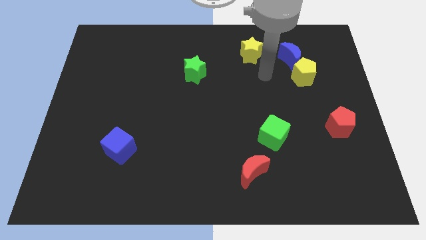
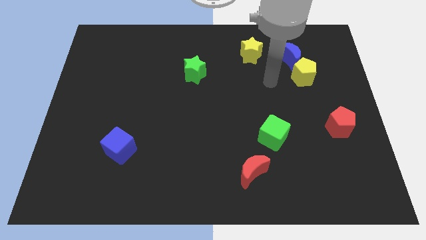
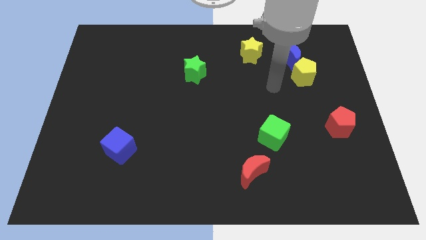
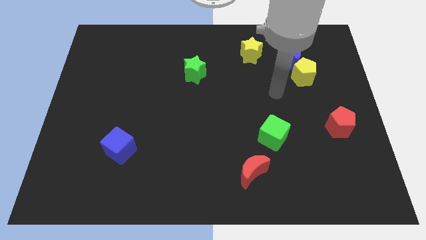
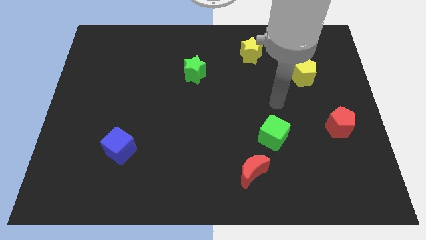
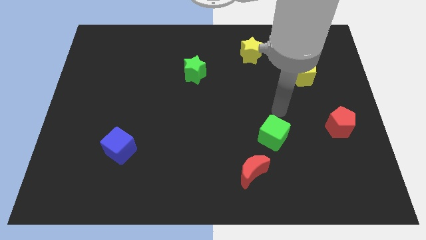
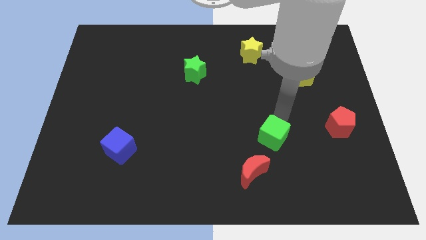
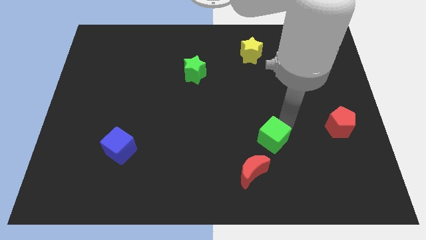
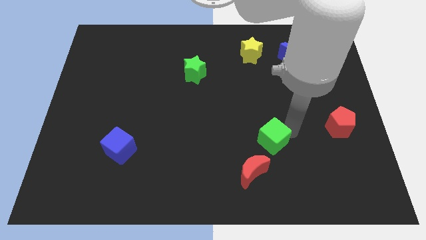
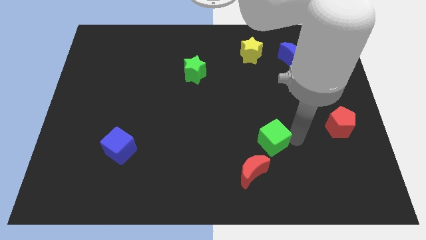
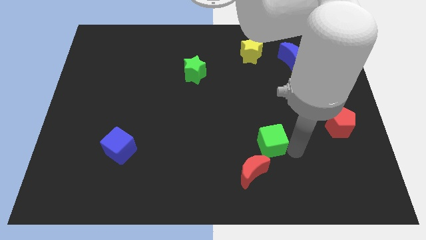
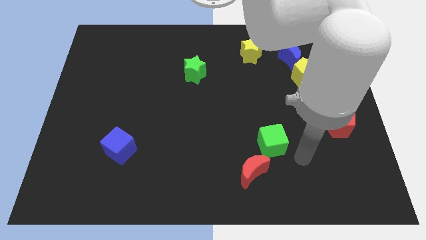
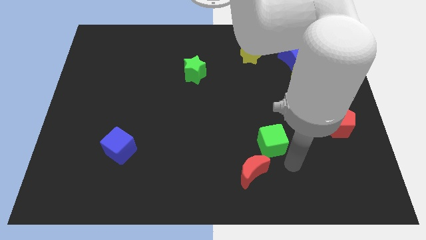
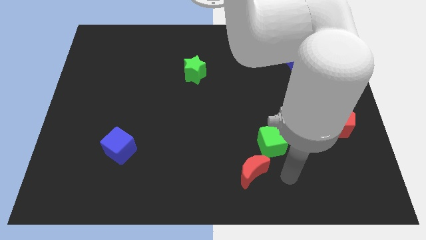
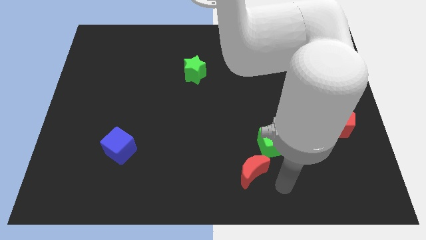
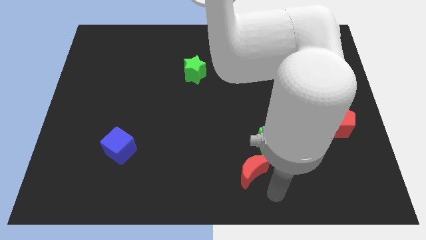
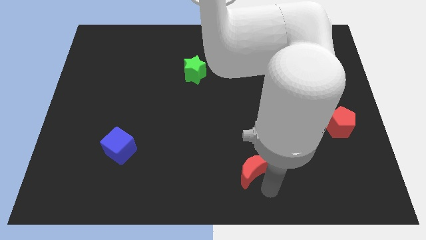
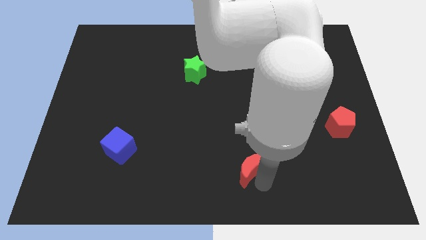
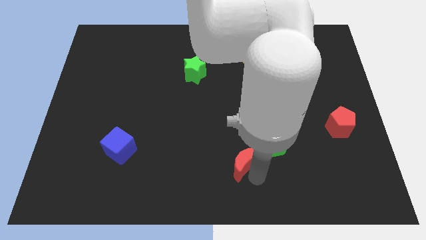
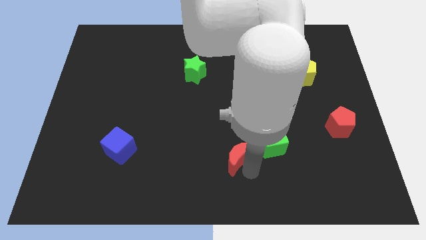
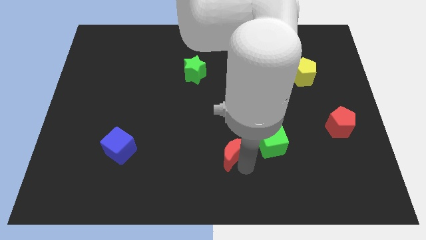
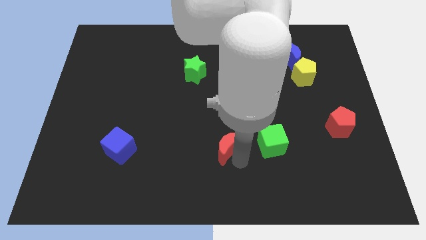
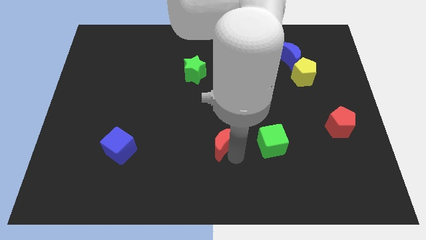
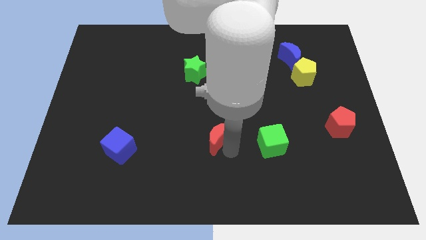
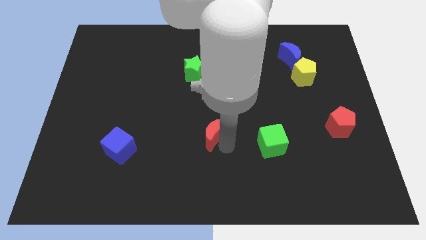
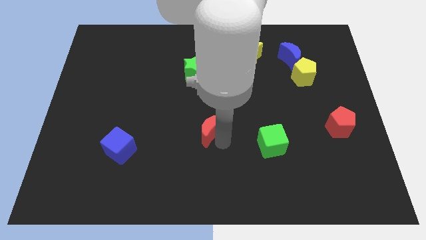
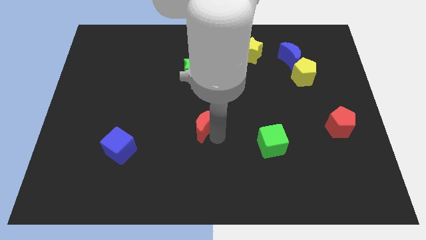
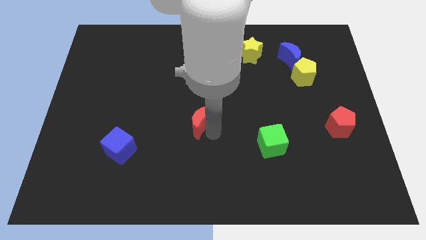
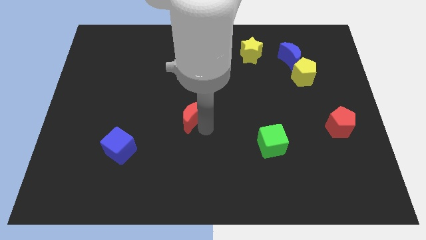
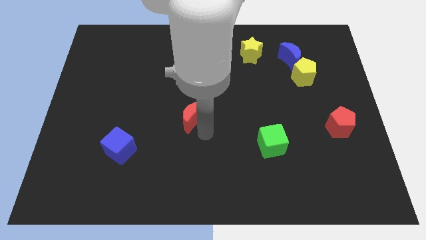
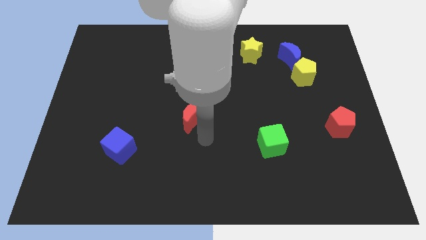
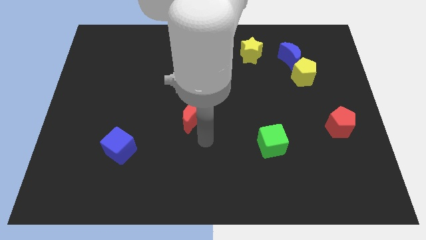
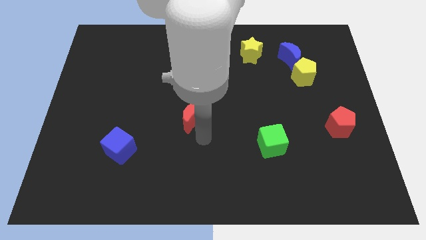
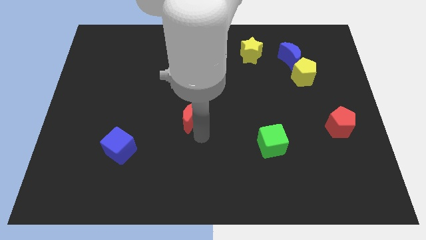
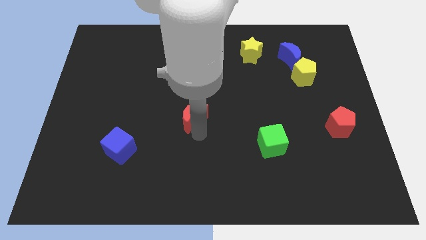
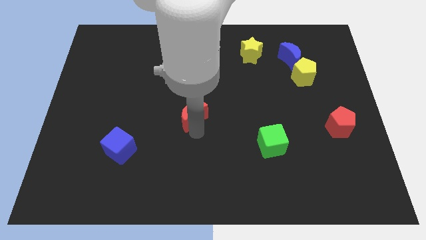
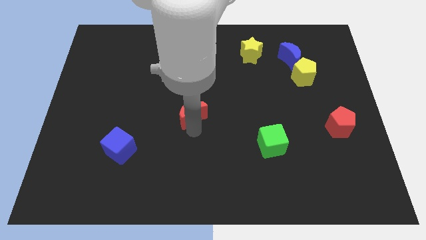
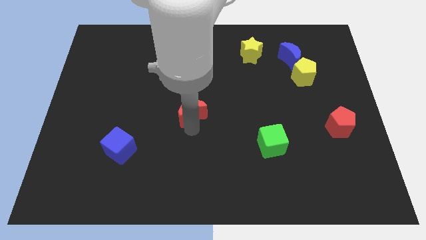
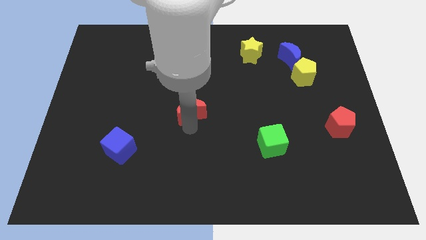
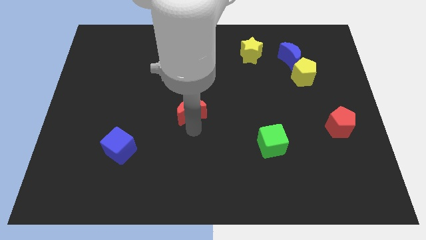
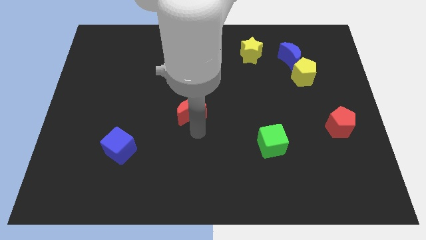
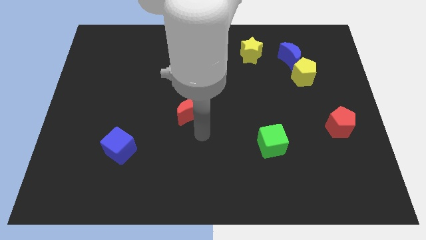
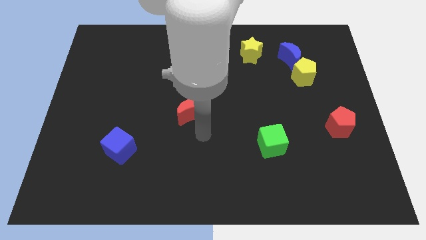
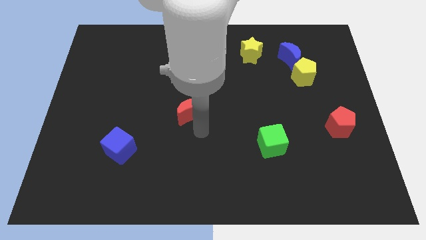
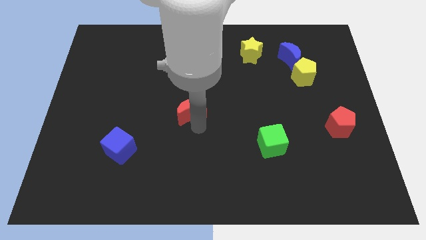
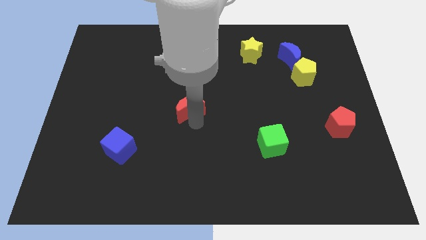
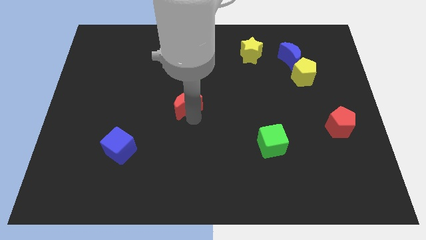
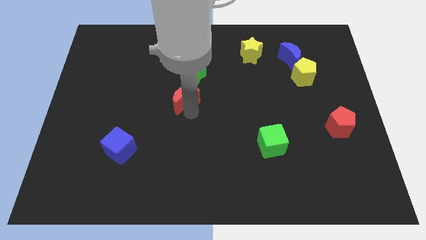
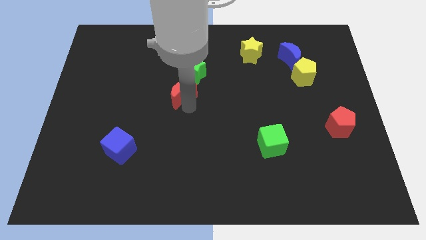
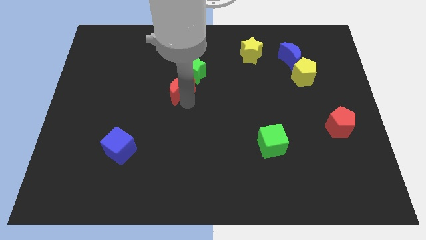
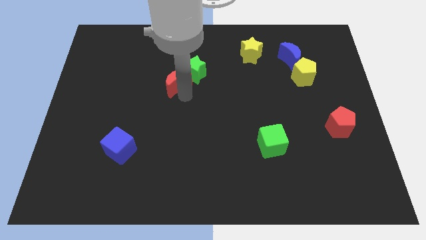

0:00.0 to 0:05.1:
move the red moon to the left side of the green star

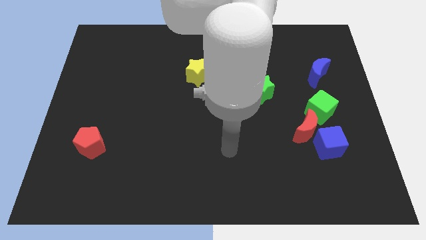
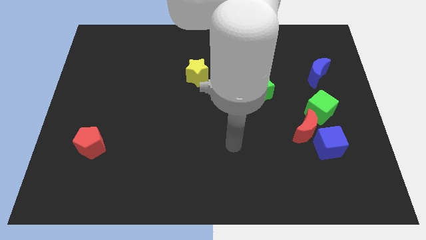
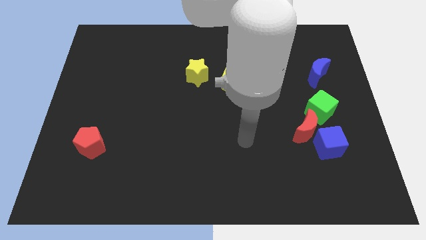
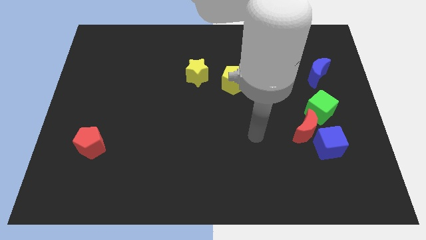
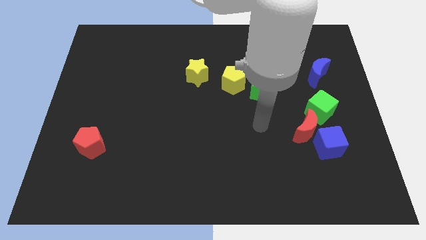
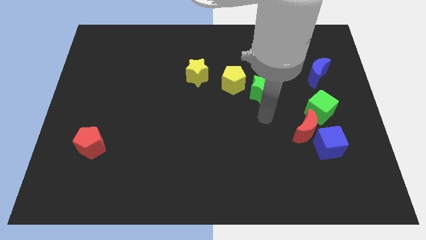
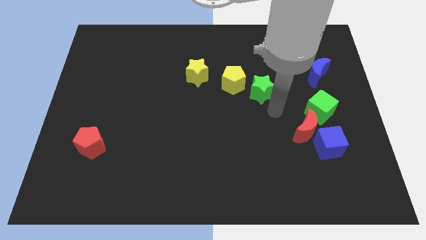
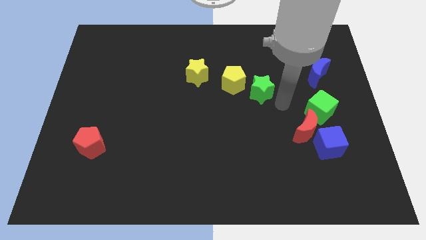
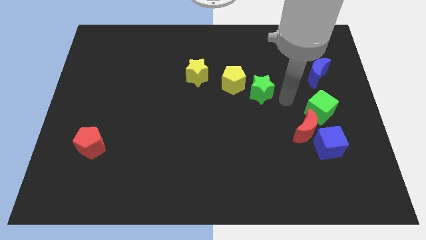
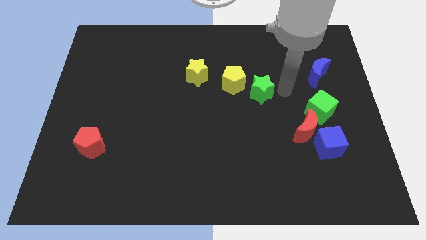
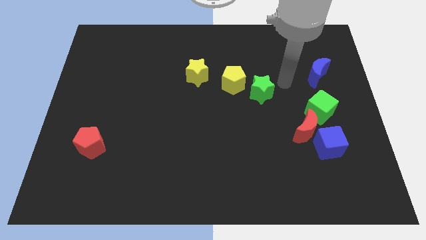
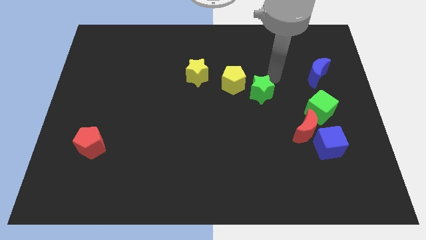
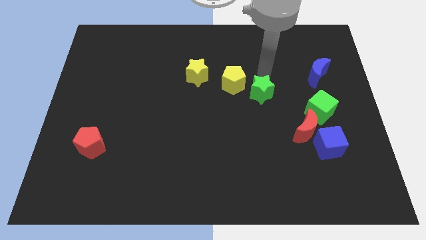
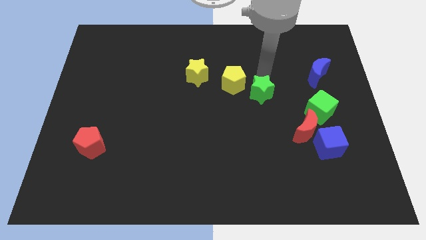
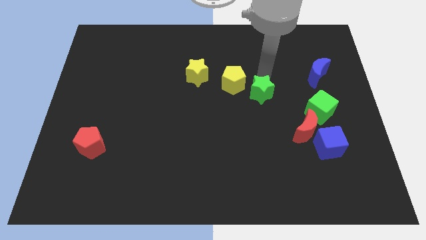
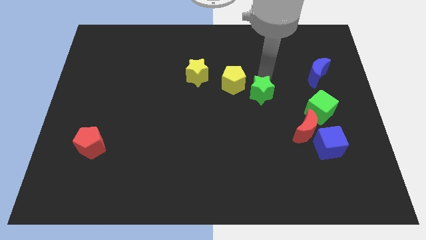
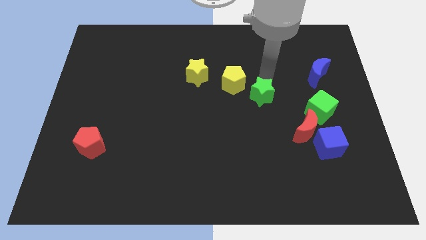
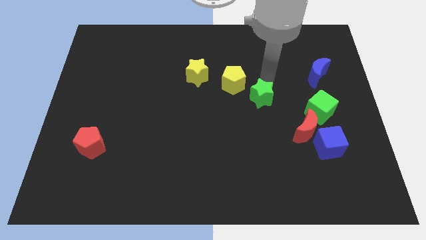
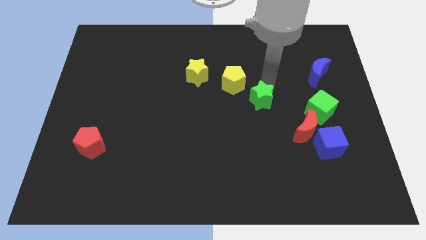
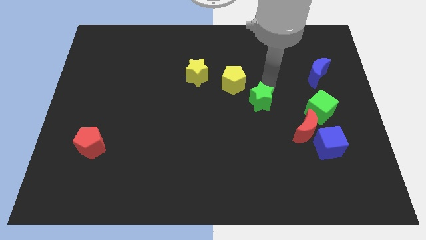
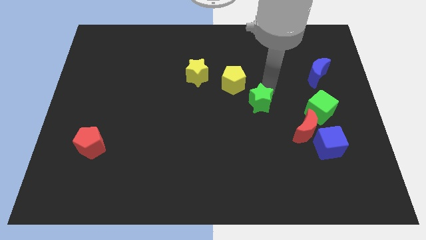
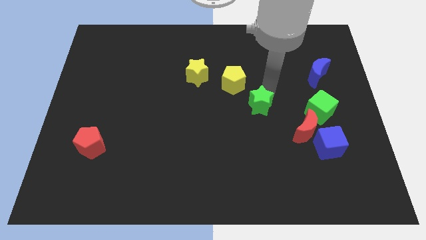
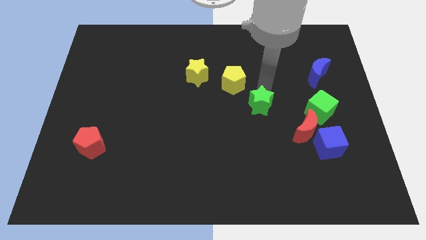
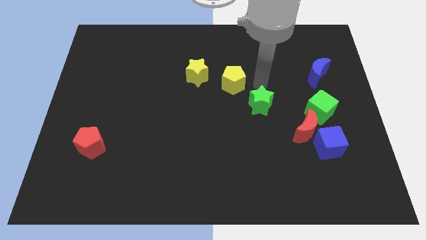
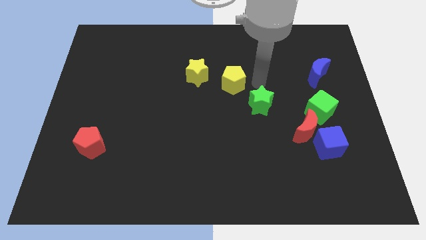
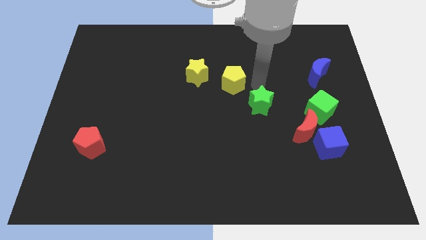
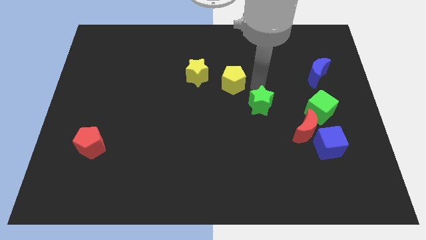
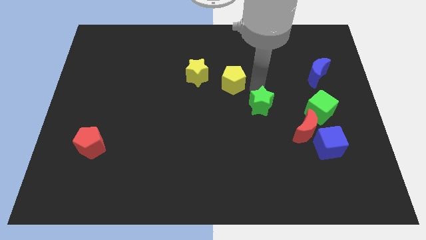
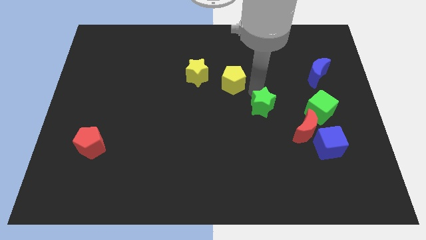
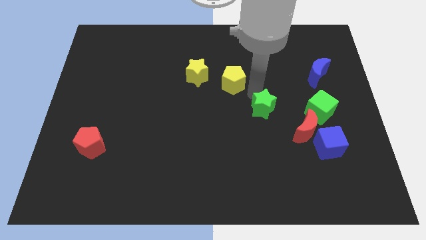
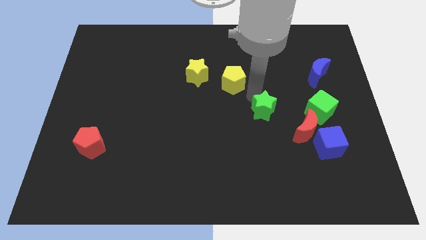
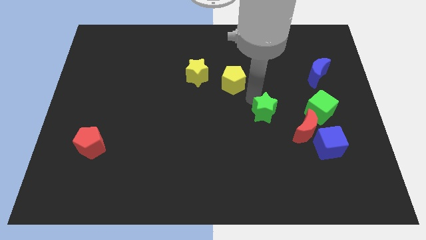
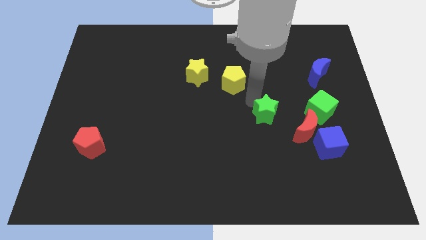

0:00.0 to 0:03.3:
push the green star just left of the red moon
